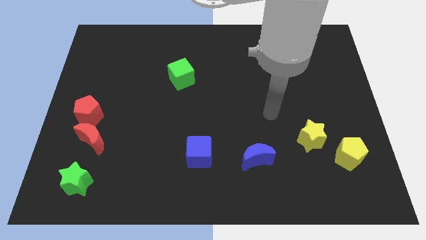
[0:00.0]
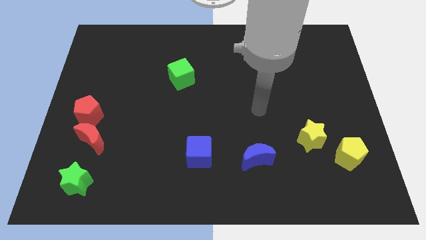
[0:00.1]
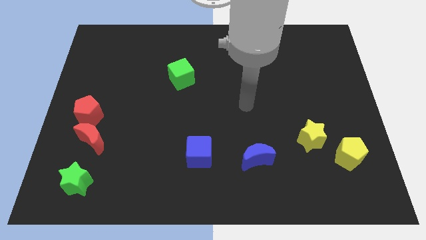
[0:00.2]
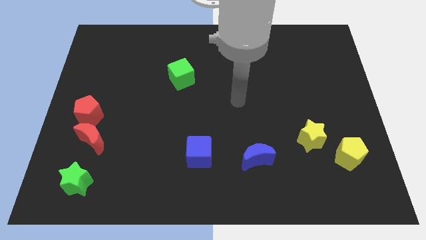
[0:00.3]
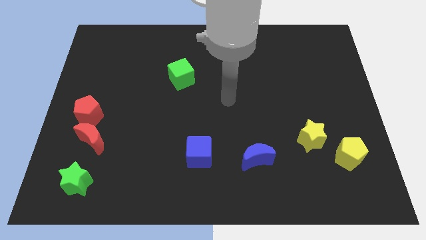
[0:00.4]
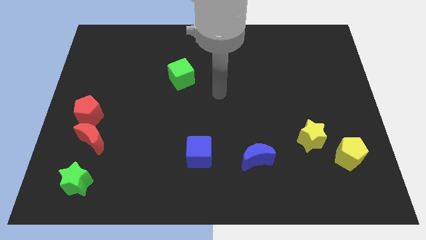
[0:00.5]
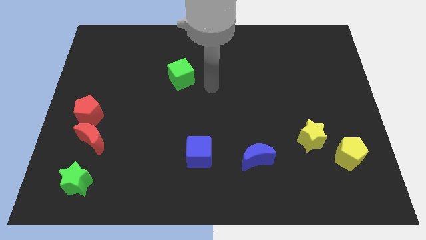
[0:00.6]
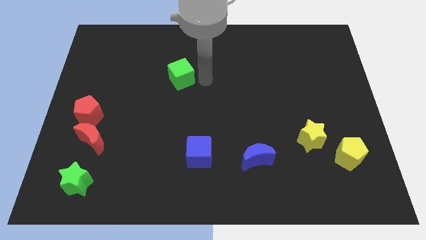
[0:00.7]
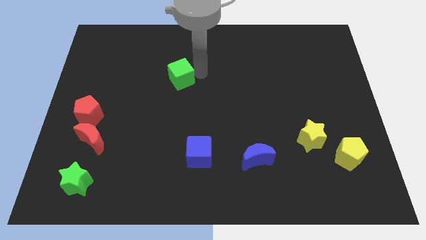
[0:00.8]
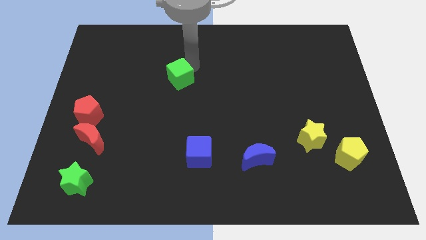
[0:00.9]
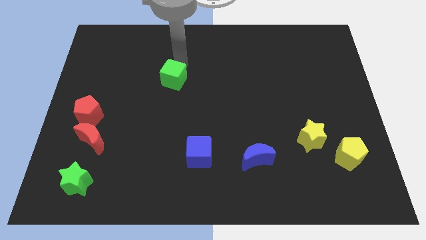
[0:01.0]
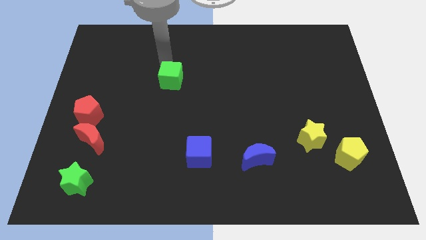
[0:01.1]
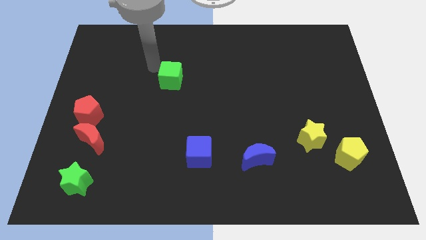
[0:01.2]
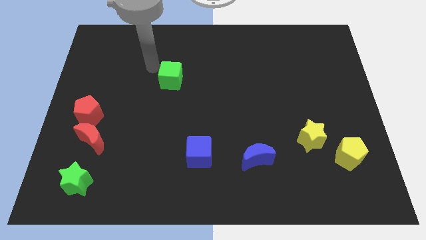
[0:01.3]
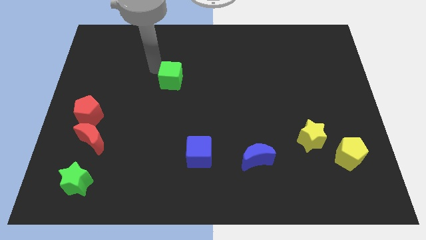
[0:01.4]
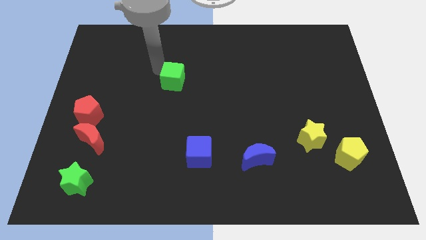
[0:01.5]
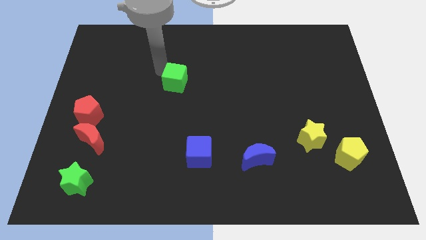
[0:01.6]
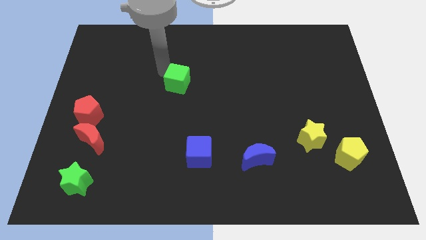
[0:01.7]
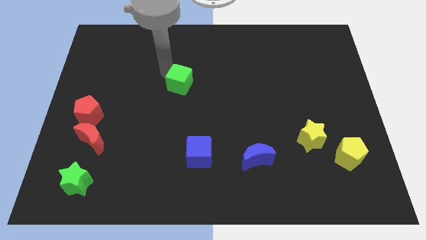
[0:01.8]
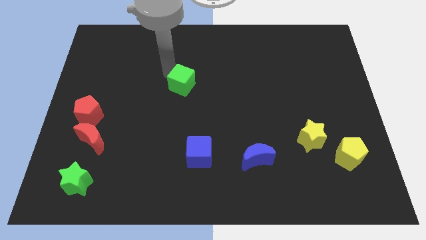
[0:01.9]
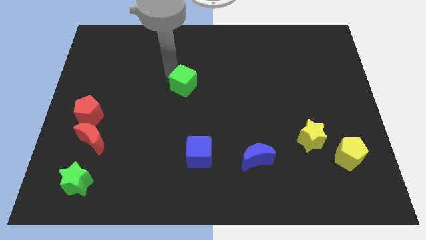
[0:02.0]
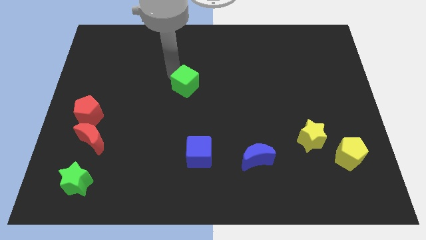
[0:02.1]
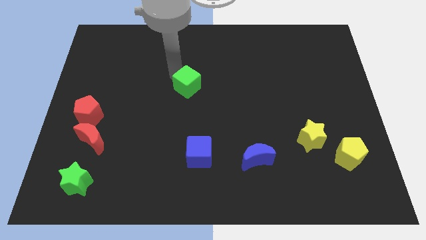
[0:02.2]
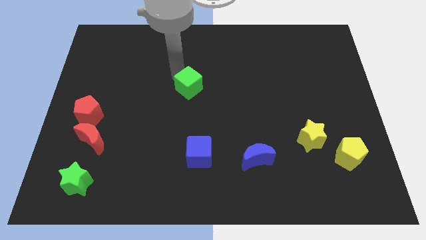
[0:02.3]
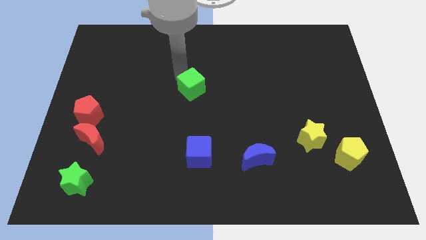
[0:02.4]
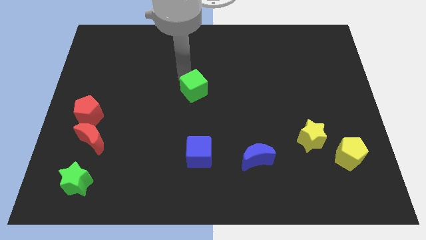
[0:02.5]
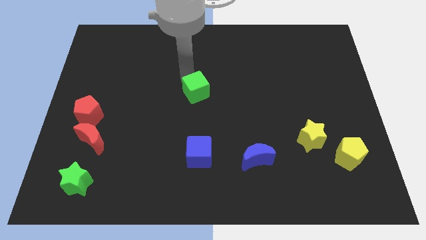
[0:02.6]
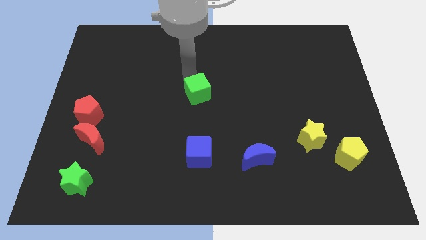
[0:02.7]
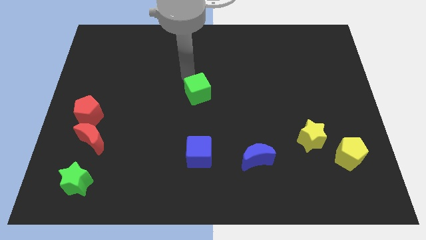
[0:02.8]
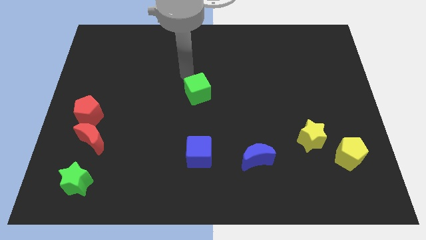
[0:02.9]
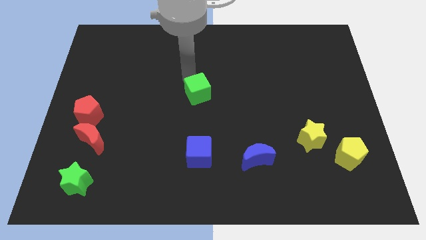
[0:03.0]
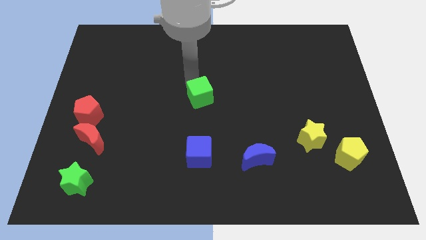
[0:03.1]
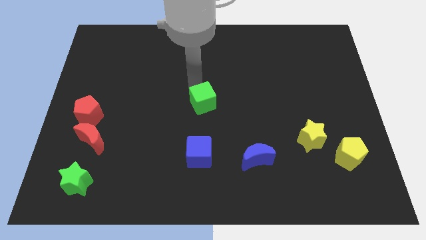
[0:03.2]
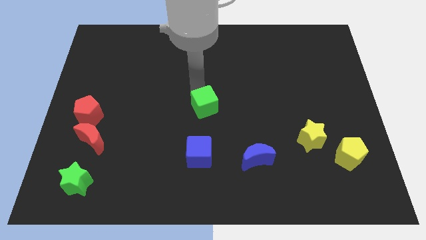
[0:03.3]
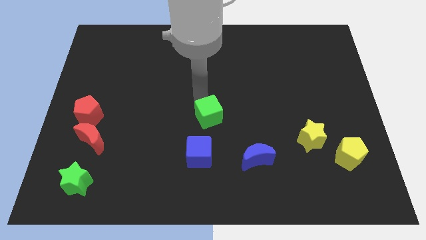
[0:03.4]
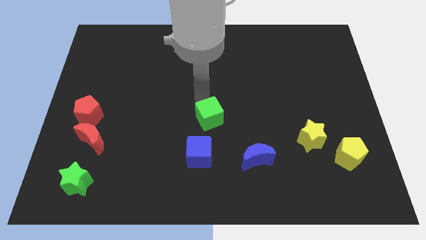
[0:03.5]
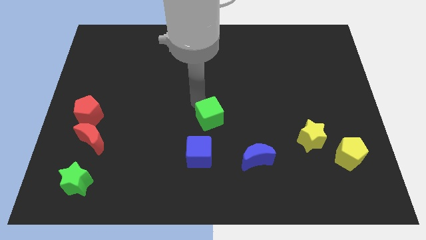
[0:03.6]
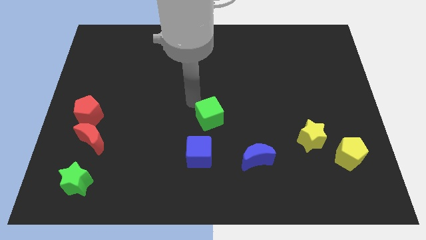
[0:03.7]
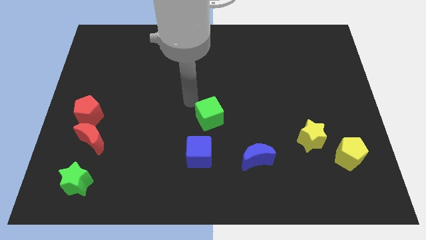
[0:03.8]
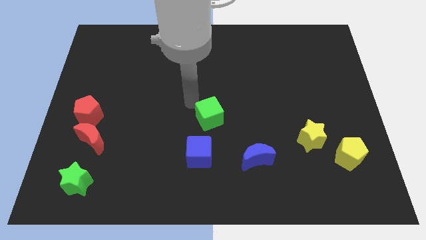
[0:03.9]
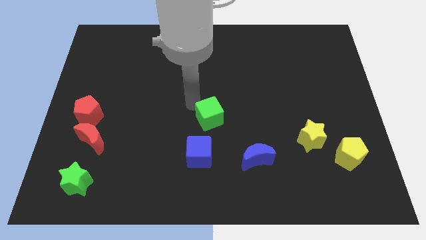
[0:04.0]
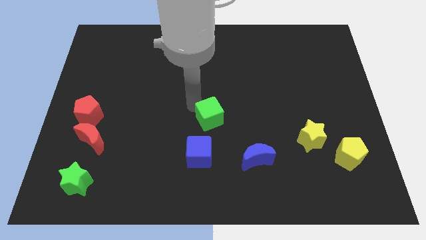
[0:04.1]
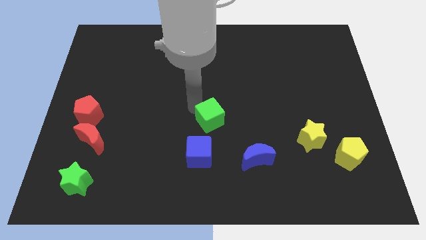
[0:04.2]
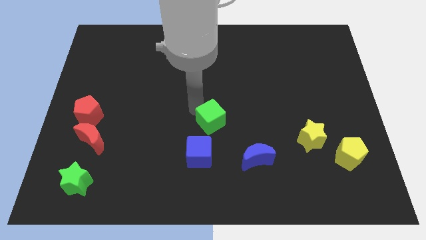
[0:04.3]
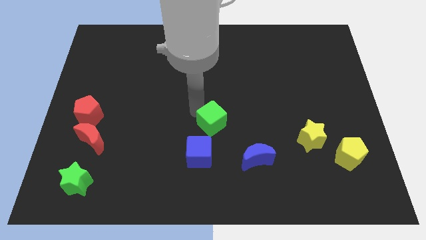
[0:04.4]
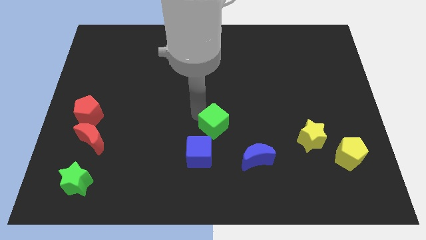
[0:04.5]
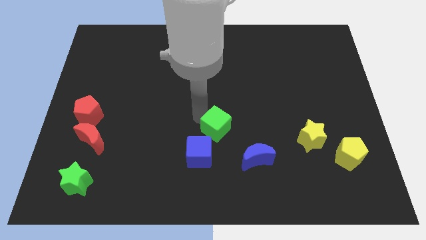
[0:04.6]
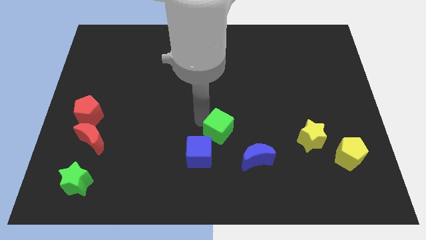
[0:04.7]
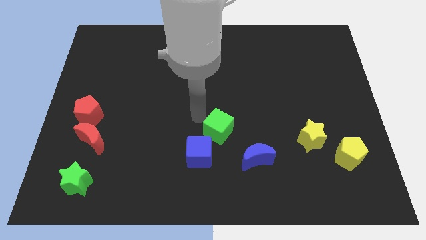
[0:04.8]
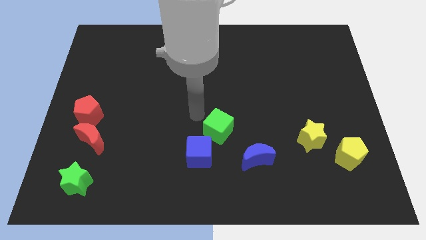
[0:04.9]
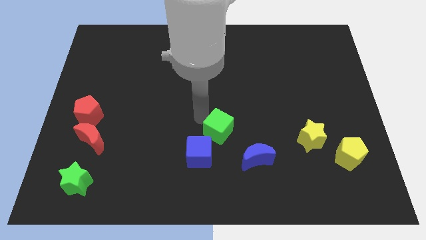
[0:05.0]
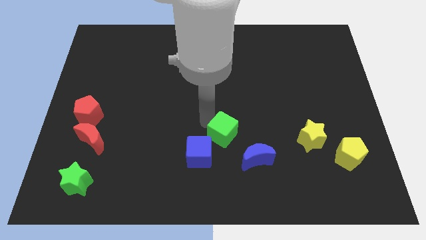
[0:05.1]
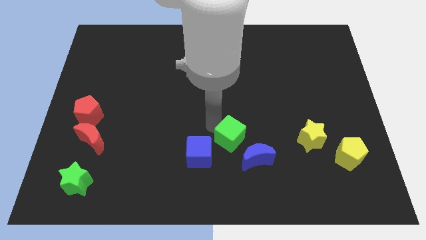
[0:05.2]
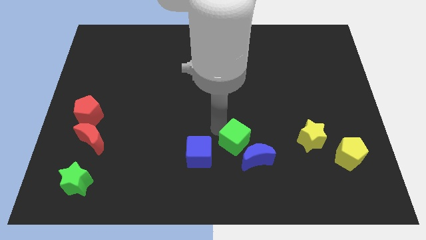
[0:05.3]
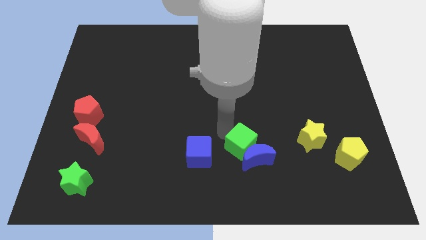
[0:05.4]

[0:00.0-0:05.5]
put the green cube to the blue moon

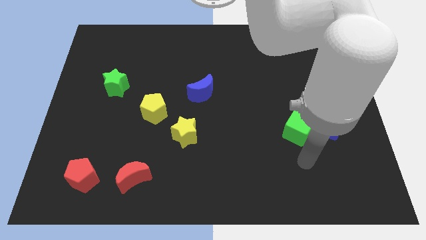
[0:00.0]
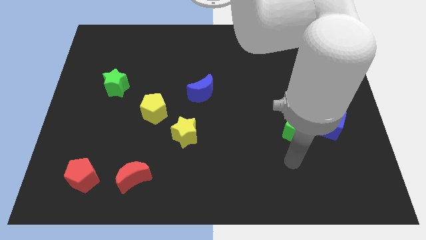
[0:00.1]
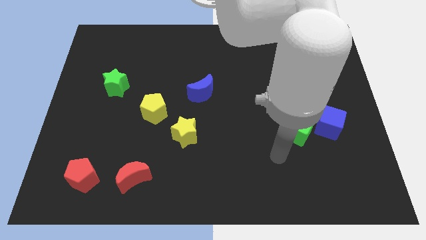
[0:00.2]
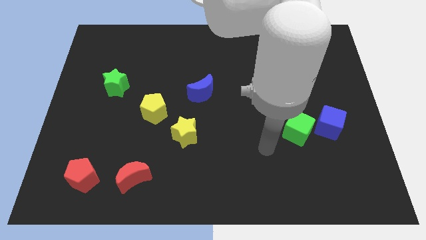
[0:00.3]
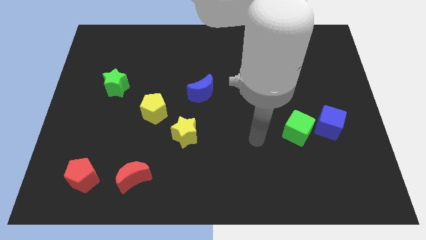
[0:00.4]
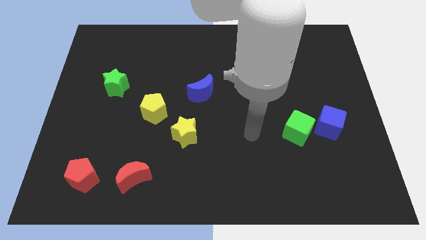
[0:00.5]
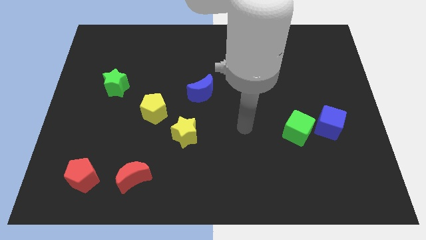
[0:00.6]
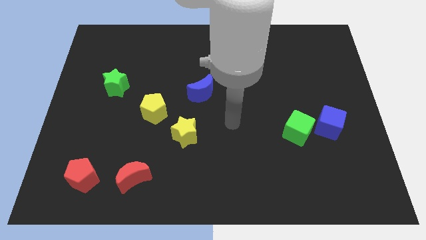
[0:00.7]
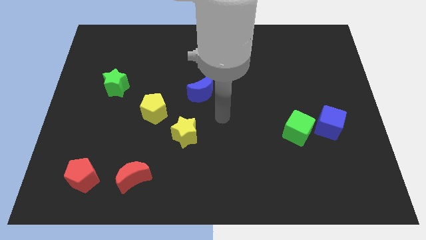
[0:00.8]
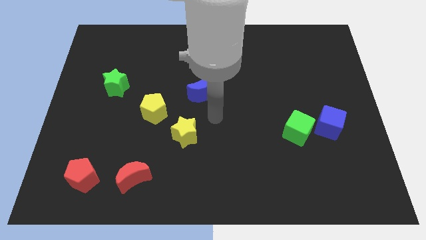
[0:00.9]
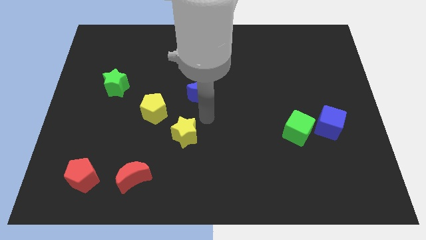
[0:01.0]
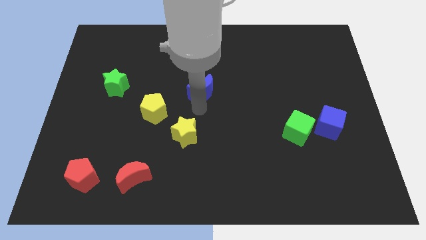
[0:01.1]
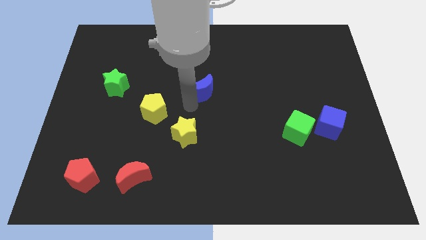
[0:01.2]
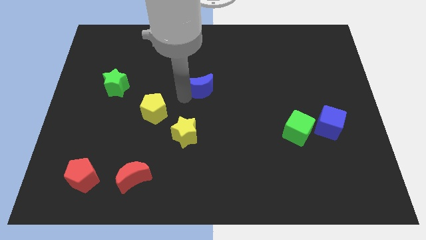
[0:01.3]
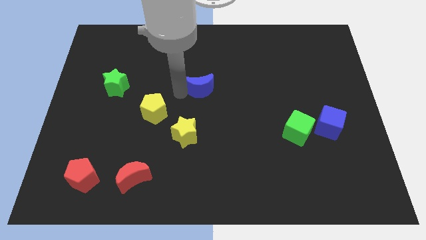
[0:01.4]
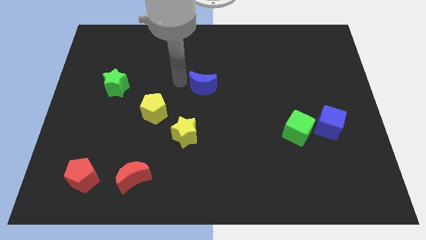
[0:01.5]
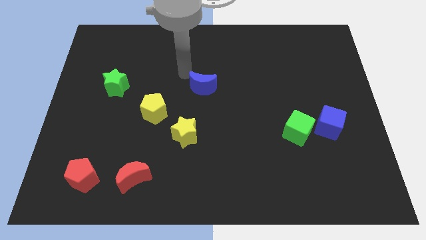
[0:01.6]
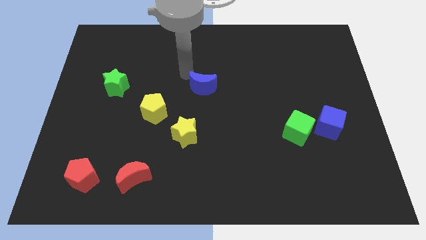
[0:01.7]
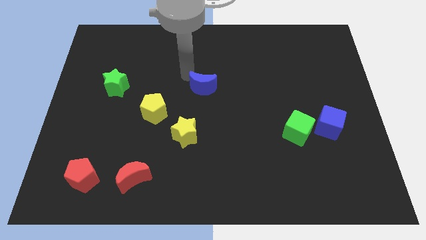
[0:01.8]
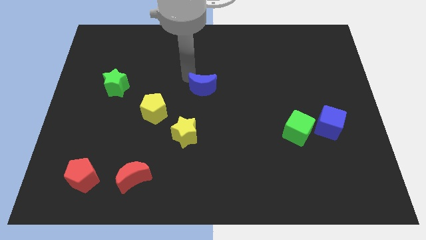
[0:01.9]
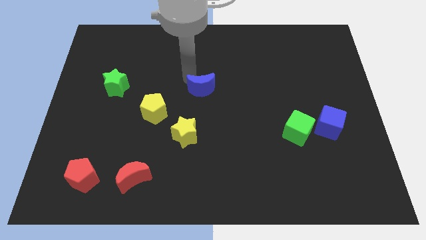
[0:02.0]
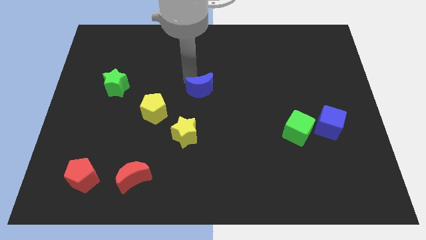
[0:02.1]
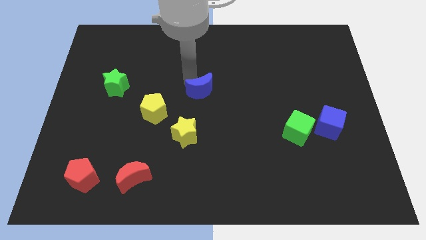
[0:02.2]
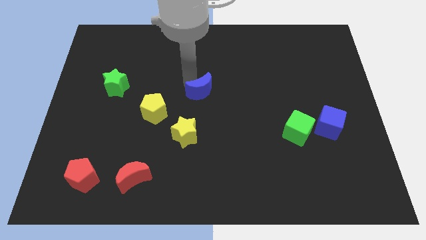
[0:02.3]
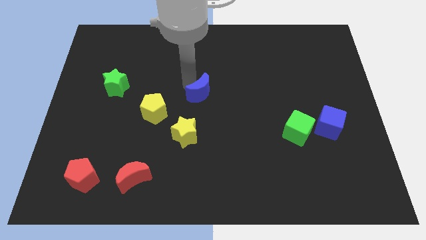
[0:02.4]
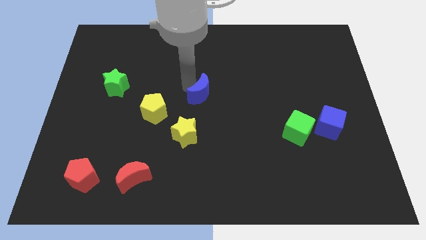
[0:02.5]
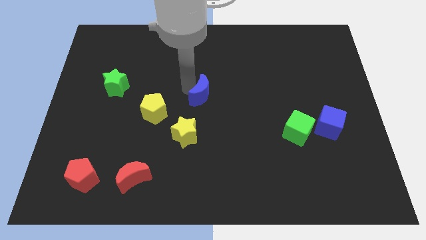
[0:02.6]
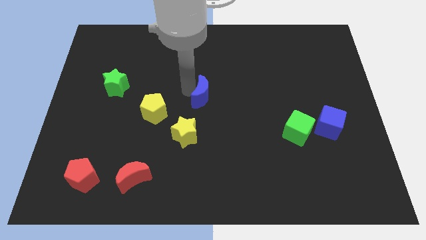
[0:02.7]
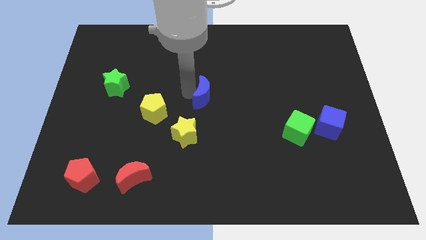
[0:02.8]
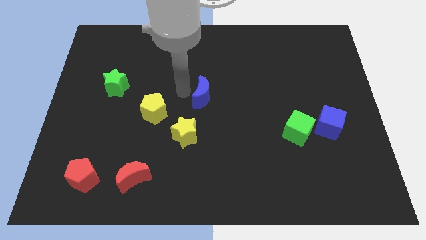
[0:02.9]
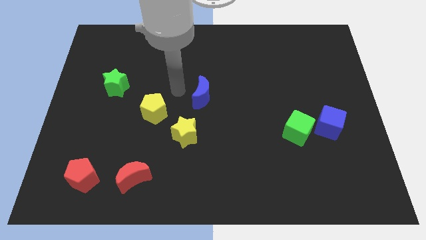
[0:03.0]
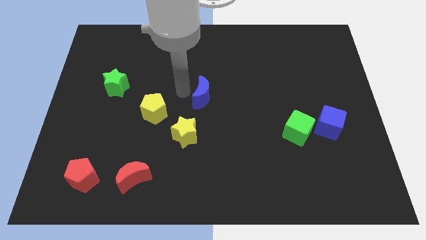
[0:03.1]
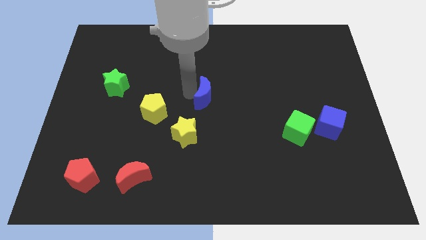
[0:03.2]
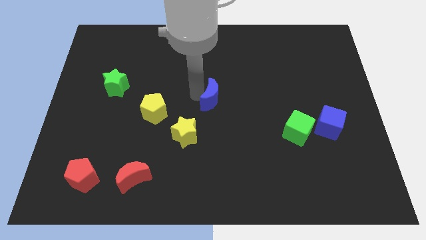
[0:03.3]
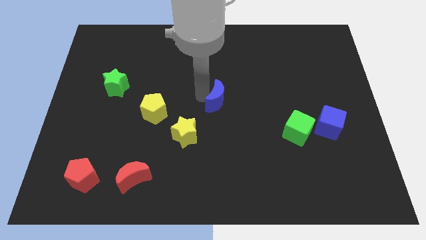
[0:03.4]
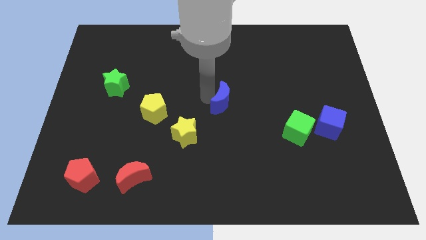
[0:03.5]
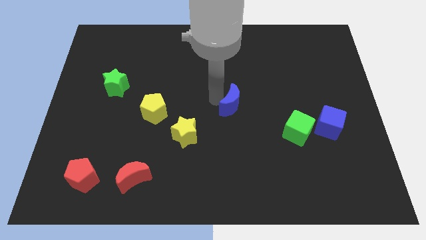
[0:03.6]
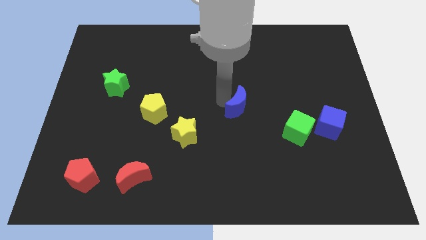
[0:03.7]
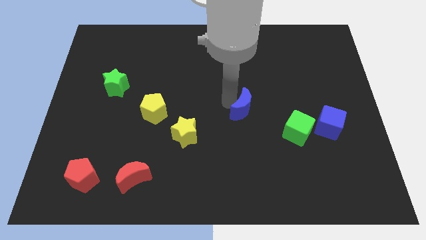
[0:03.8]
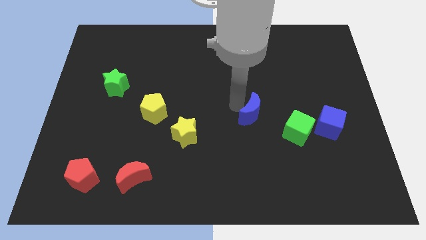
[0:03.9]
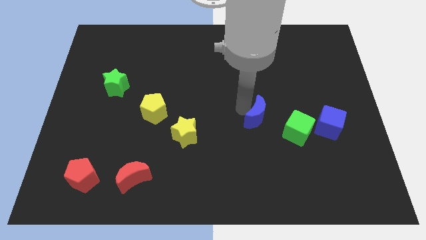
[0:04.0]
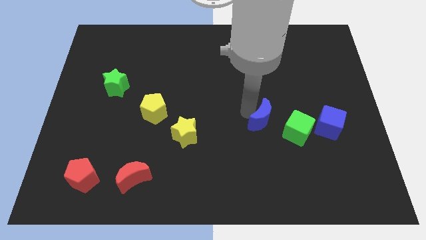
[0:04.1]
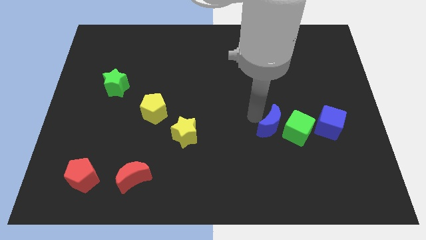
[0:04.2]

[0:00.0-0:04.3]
put the blue moon to the green cube
